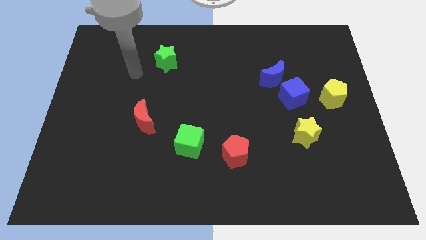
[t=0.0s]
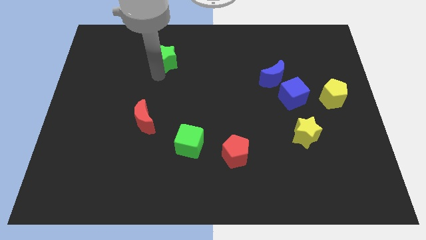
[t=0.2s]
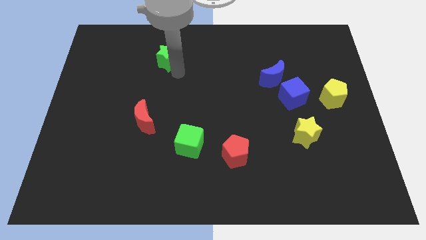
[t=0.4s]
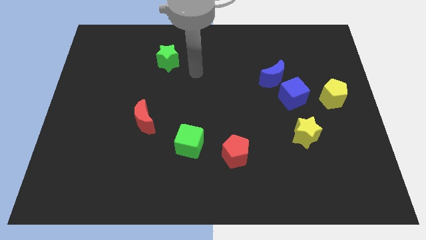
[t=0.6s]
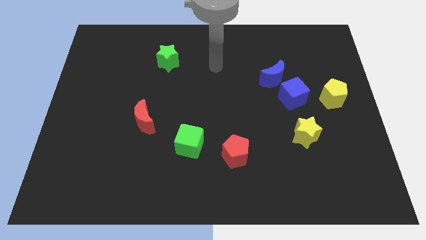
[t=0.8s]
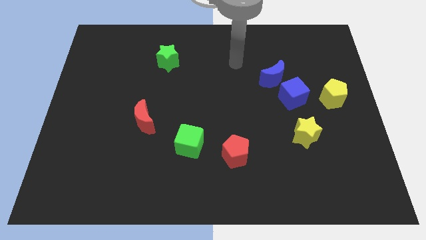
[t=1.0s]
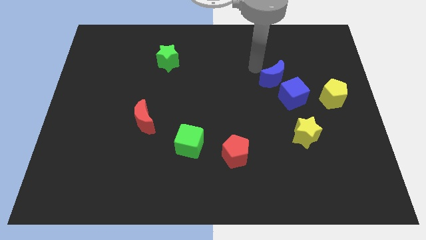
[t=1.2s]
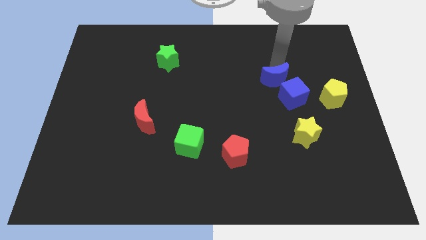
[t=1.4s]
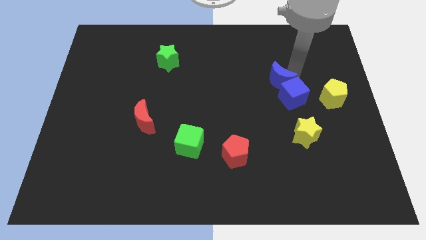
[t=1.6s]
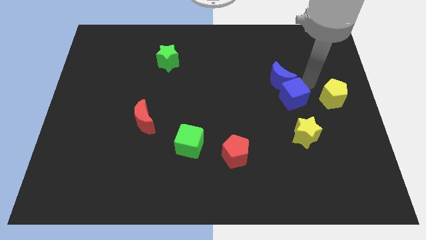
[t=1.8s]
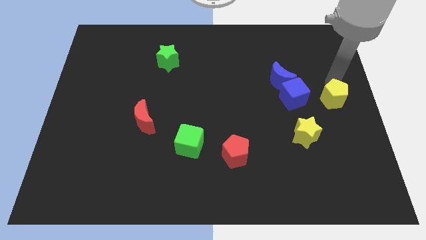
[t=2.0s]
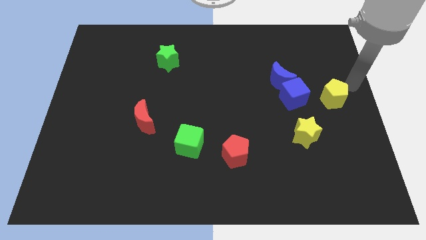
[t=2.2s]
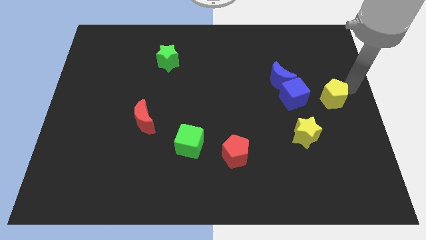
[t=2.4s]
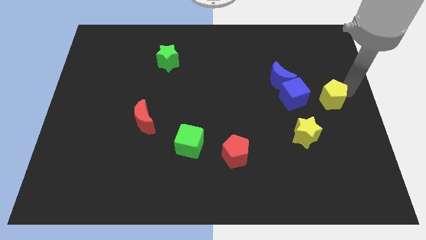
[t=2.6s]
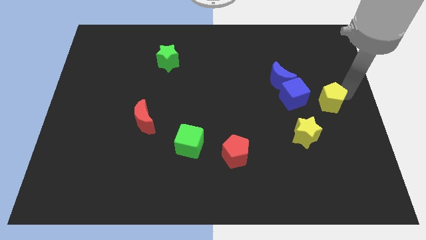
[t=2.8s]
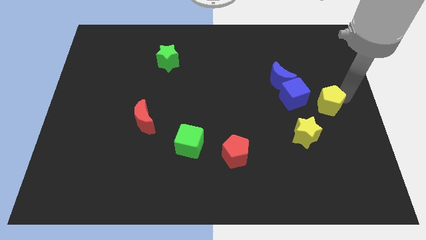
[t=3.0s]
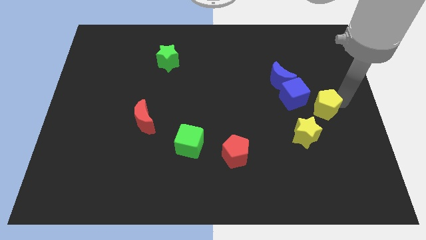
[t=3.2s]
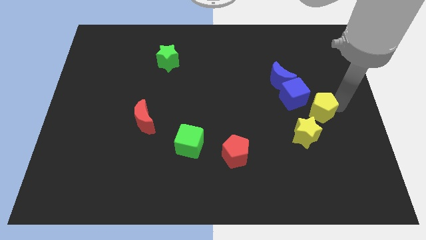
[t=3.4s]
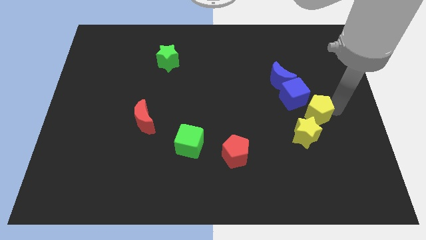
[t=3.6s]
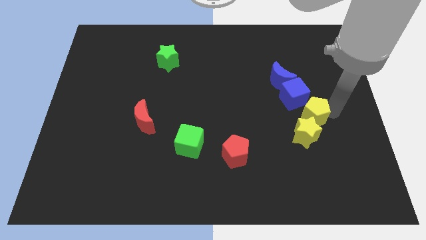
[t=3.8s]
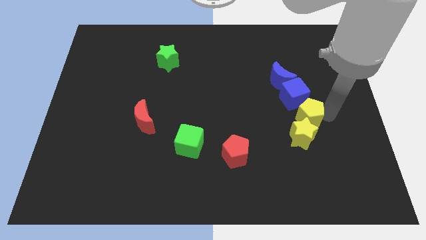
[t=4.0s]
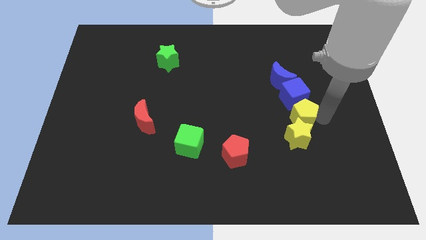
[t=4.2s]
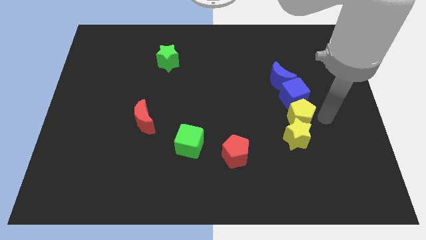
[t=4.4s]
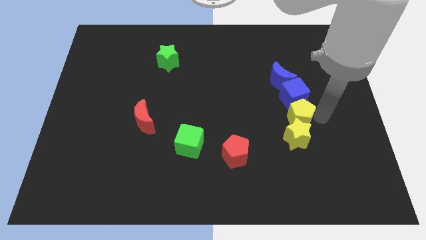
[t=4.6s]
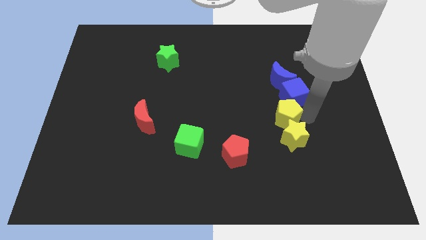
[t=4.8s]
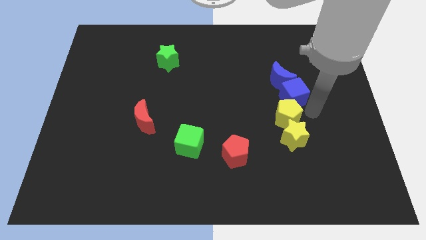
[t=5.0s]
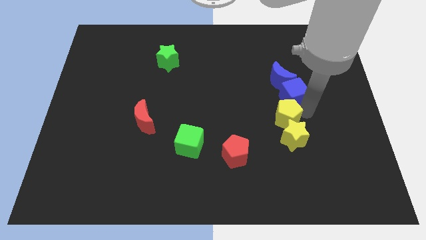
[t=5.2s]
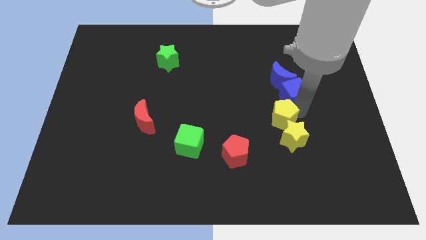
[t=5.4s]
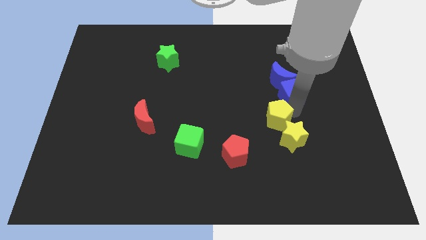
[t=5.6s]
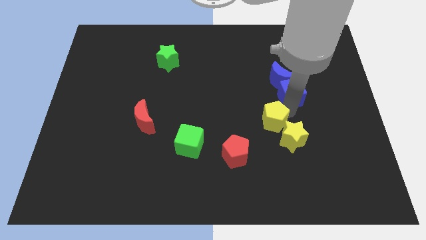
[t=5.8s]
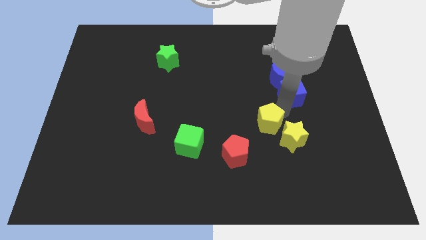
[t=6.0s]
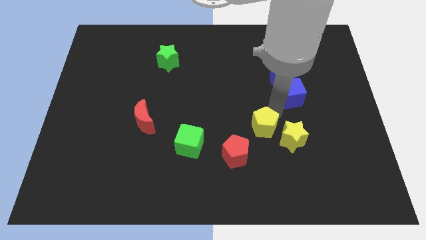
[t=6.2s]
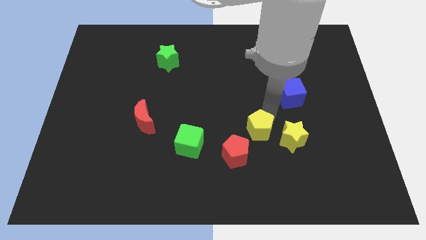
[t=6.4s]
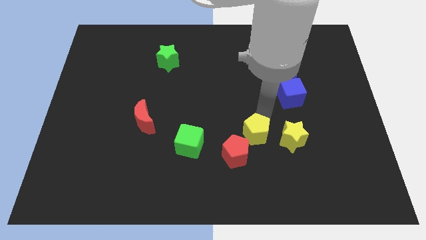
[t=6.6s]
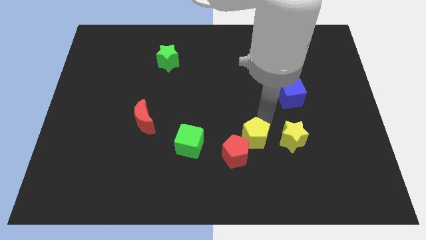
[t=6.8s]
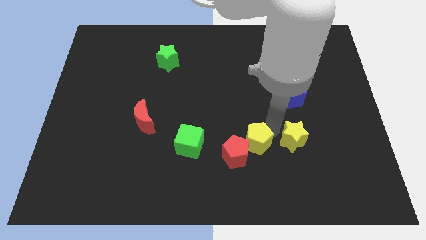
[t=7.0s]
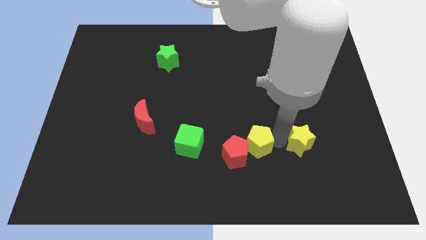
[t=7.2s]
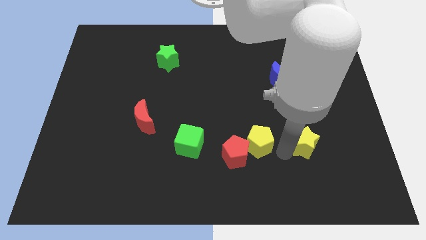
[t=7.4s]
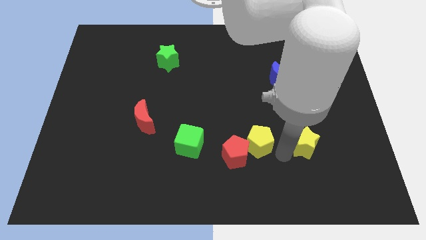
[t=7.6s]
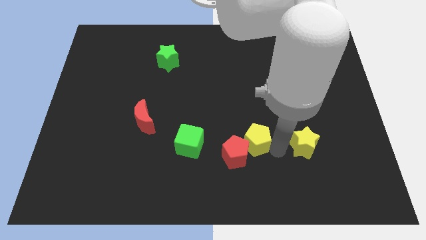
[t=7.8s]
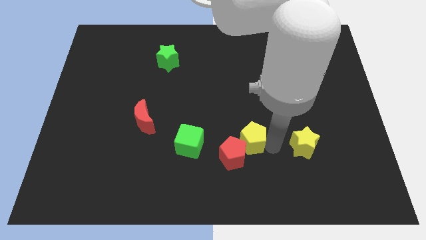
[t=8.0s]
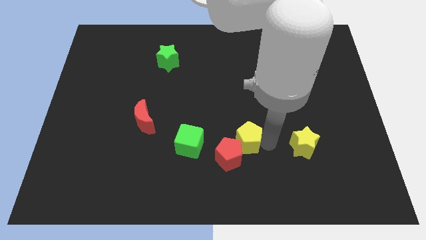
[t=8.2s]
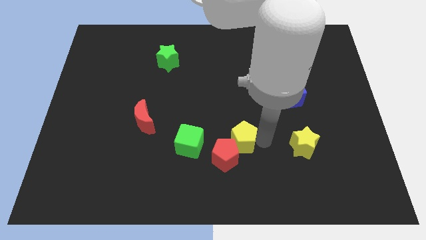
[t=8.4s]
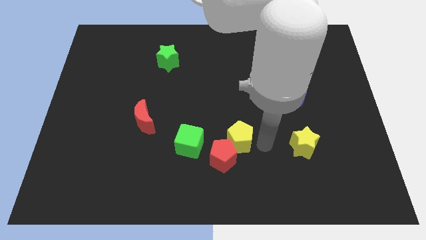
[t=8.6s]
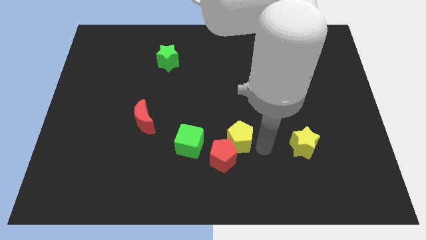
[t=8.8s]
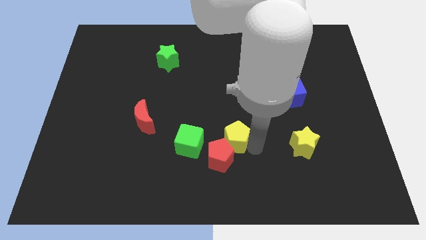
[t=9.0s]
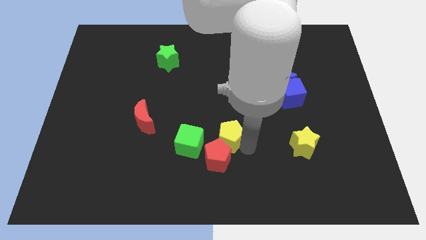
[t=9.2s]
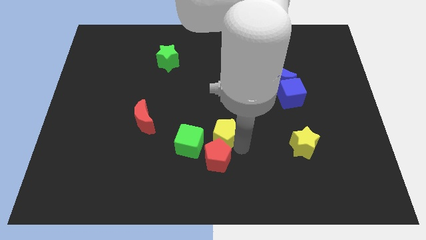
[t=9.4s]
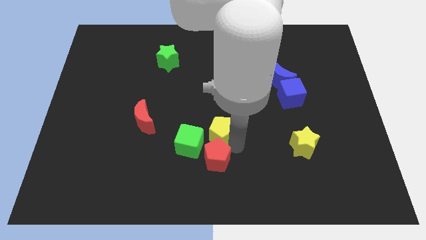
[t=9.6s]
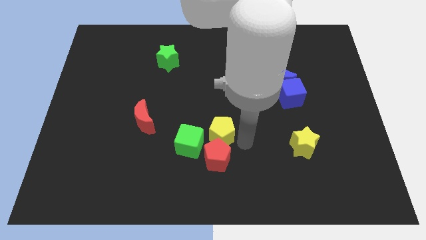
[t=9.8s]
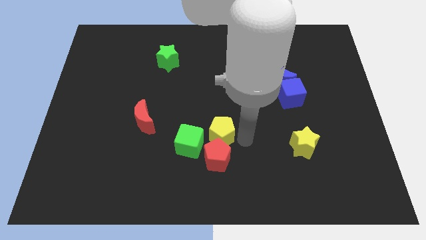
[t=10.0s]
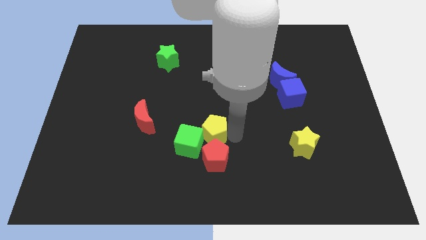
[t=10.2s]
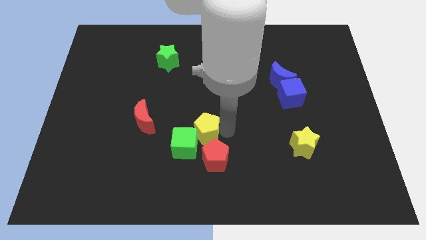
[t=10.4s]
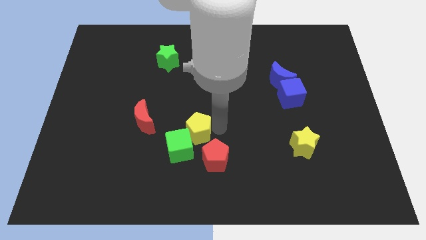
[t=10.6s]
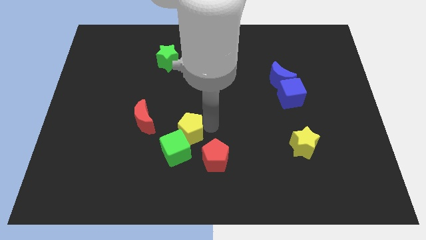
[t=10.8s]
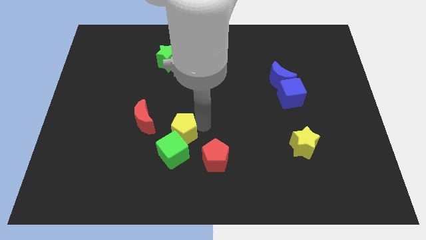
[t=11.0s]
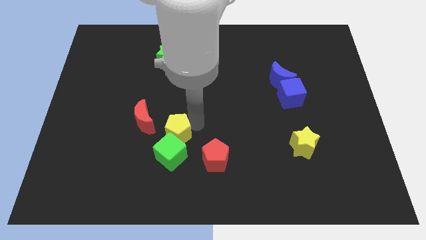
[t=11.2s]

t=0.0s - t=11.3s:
push the yellow pentagon to the top left side of the green cube

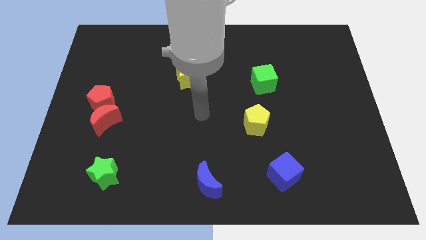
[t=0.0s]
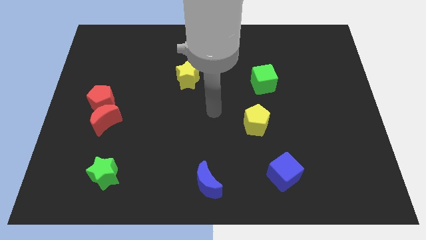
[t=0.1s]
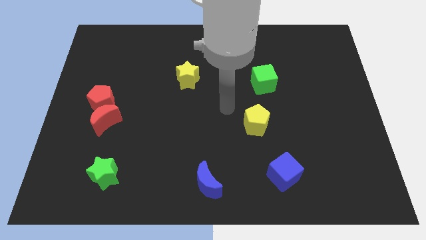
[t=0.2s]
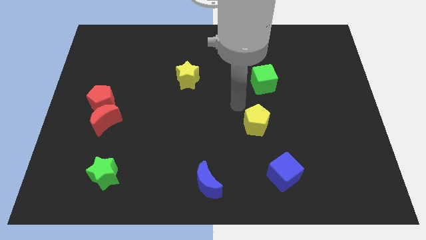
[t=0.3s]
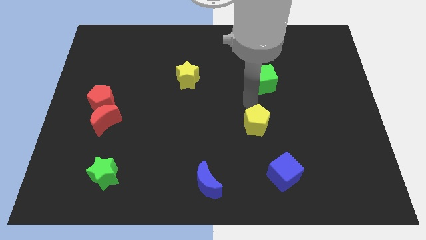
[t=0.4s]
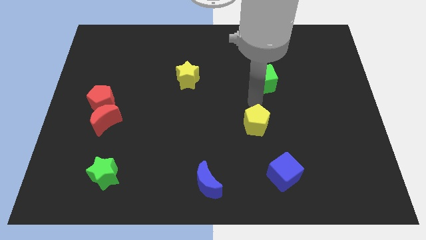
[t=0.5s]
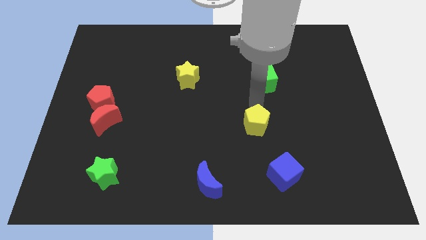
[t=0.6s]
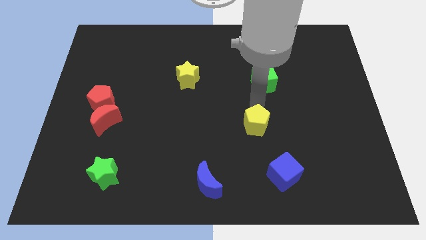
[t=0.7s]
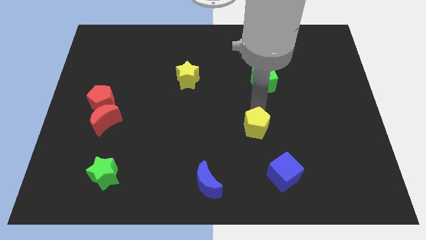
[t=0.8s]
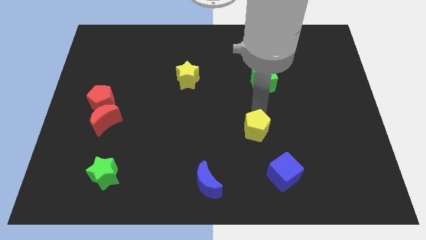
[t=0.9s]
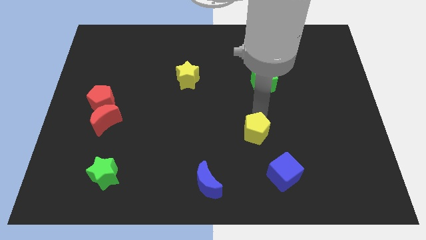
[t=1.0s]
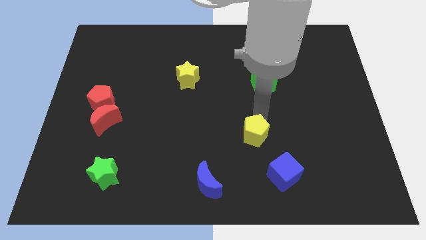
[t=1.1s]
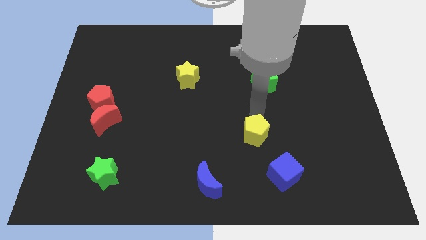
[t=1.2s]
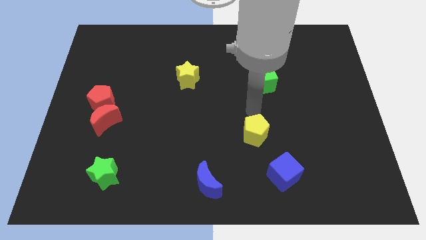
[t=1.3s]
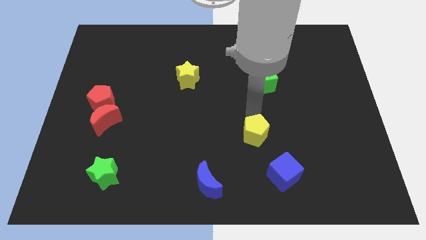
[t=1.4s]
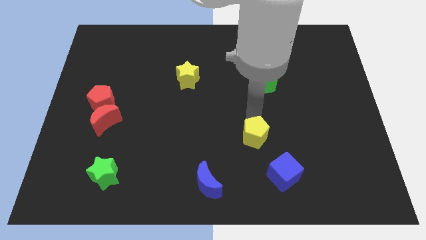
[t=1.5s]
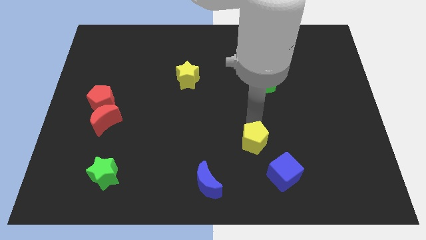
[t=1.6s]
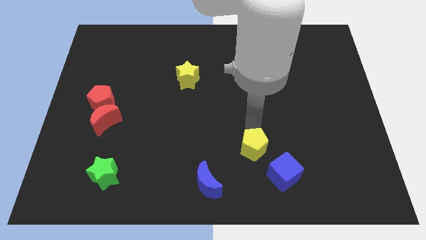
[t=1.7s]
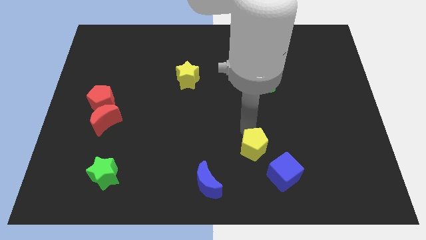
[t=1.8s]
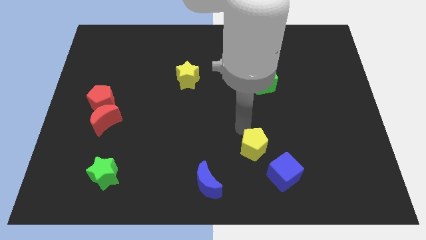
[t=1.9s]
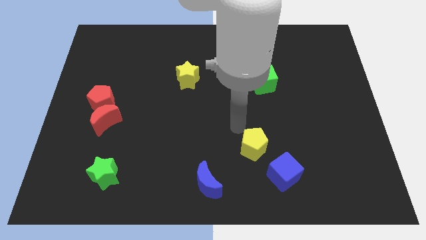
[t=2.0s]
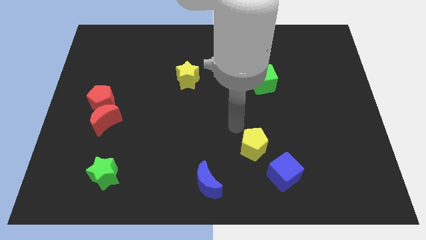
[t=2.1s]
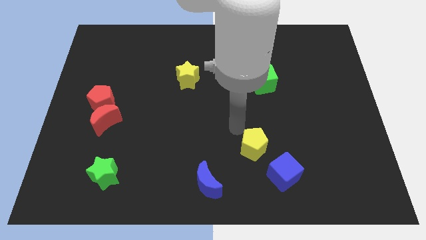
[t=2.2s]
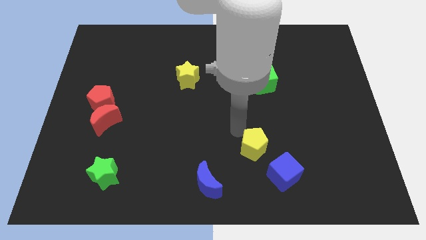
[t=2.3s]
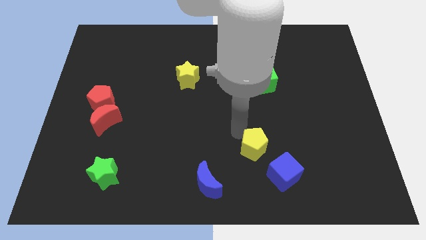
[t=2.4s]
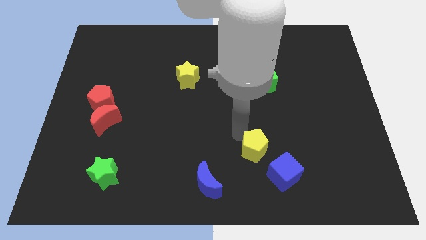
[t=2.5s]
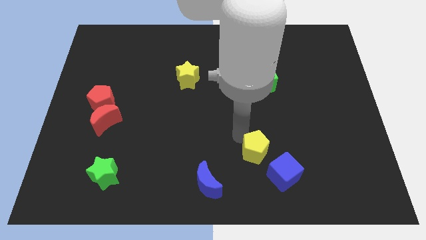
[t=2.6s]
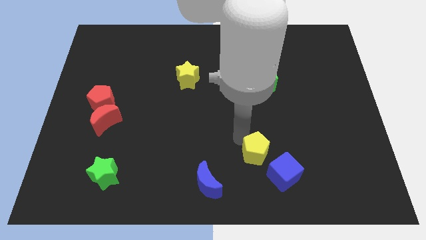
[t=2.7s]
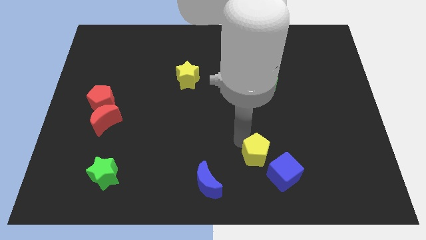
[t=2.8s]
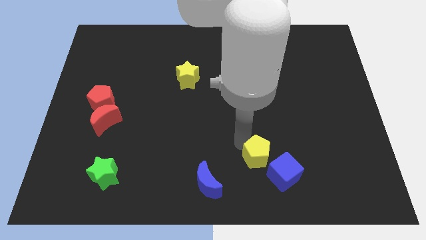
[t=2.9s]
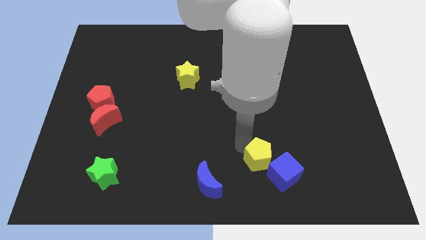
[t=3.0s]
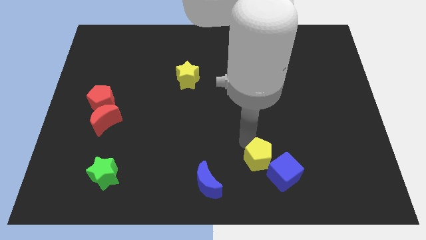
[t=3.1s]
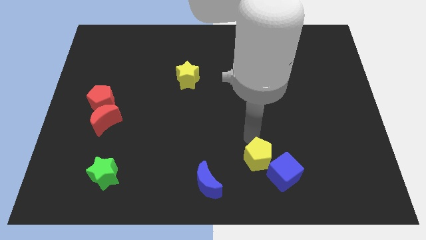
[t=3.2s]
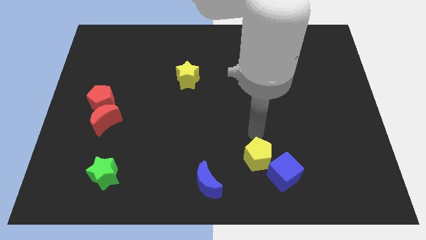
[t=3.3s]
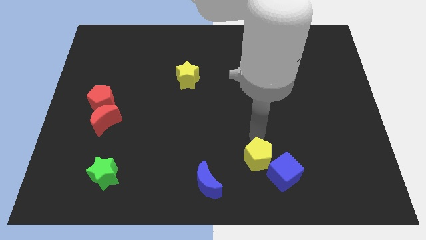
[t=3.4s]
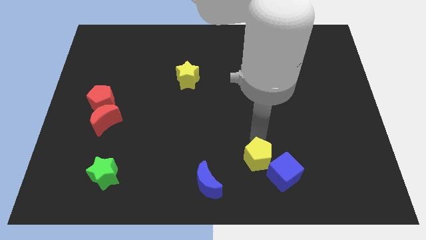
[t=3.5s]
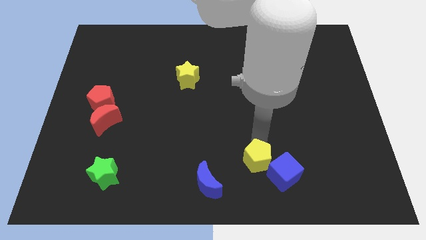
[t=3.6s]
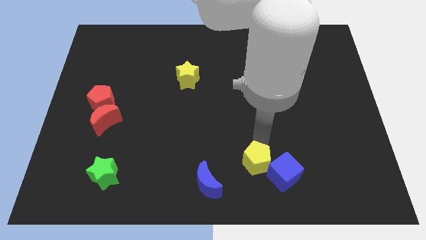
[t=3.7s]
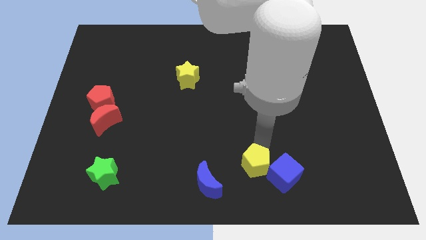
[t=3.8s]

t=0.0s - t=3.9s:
move the yellow pentagon just right of the blue moon
